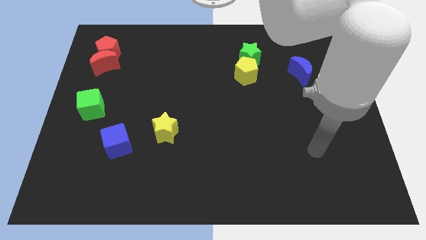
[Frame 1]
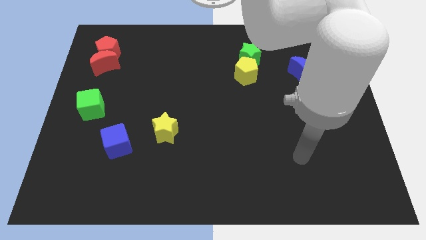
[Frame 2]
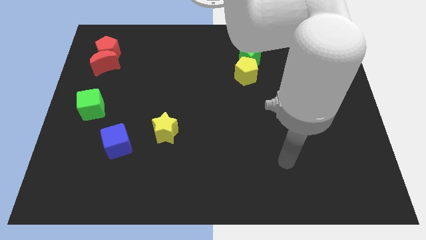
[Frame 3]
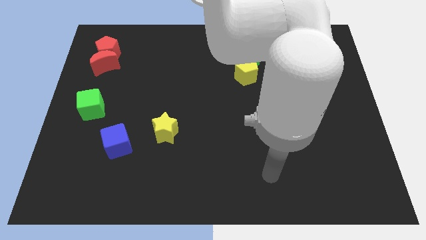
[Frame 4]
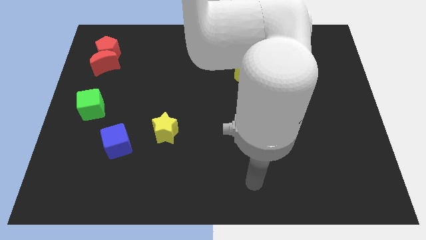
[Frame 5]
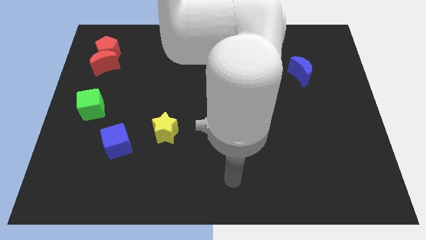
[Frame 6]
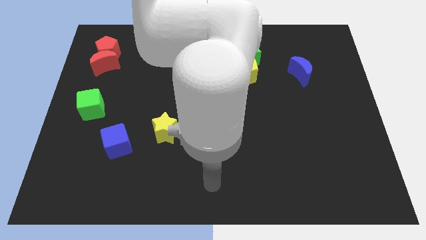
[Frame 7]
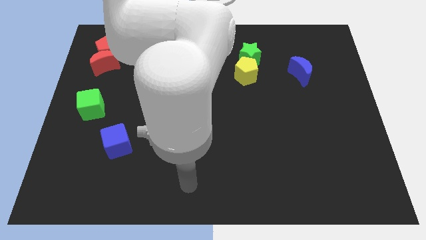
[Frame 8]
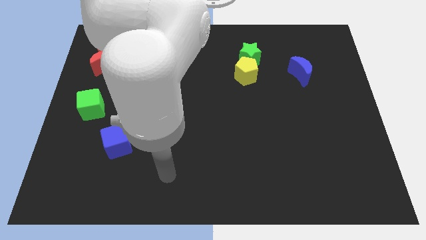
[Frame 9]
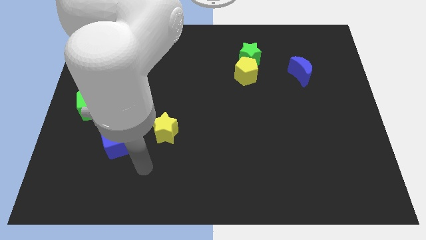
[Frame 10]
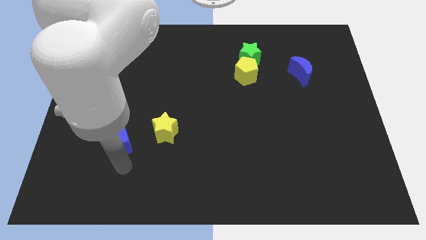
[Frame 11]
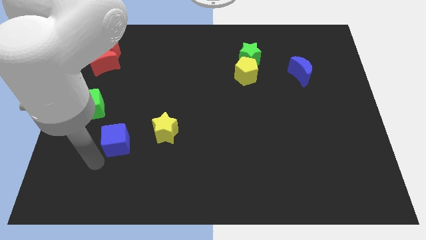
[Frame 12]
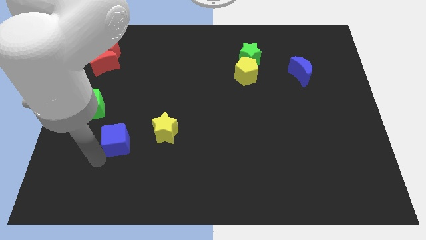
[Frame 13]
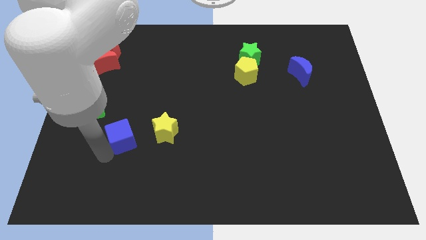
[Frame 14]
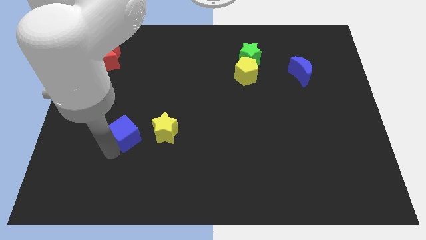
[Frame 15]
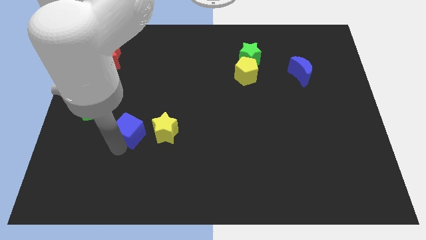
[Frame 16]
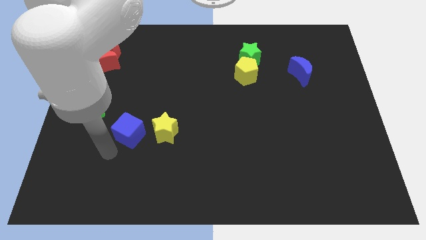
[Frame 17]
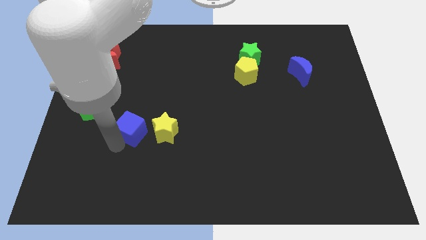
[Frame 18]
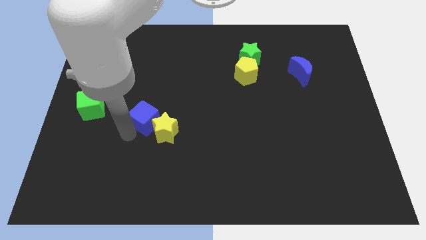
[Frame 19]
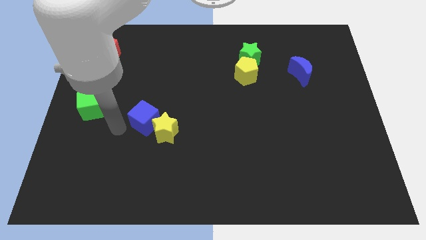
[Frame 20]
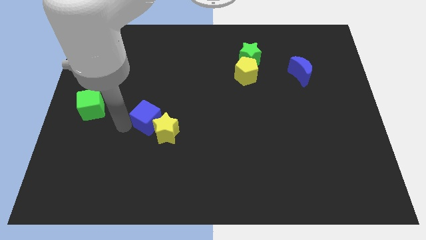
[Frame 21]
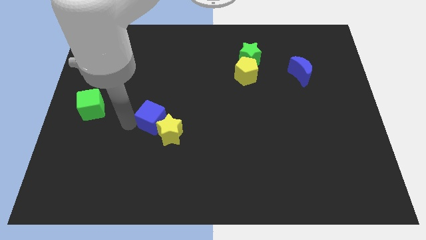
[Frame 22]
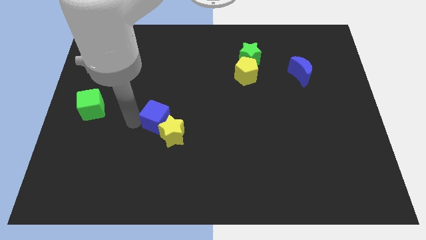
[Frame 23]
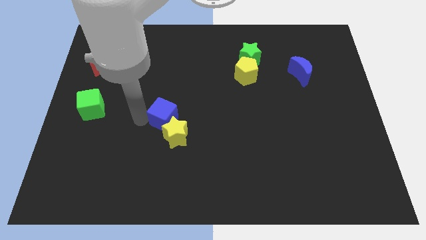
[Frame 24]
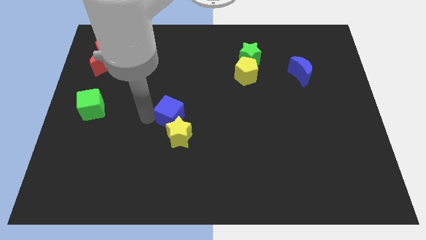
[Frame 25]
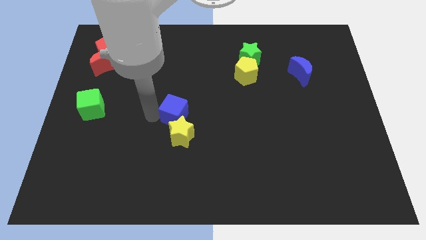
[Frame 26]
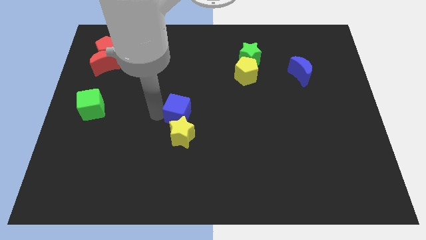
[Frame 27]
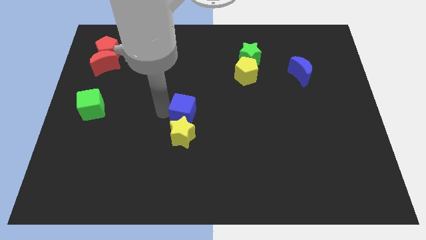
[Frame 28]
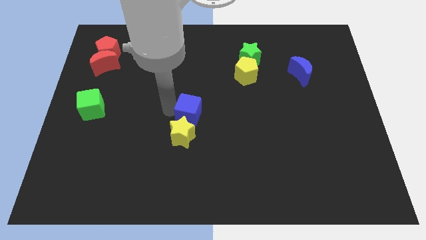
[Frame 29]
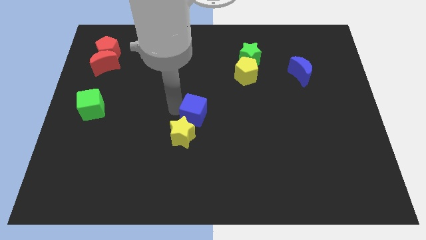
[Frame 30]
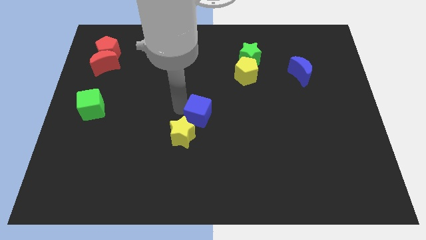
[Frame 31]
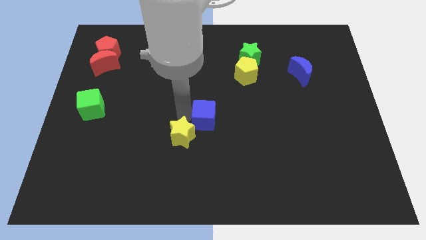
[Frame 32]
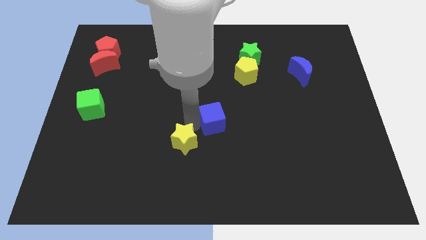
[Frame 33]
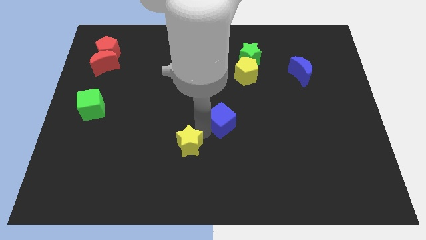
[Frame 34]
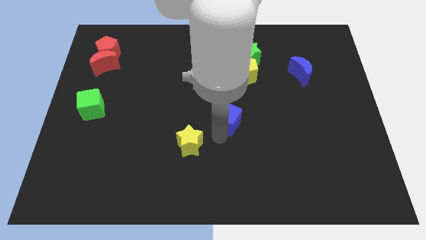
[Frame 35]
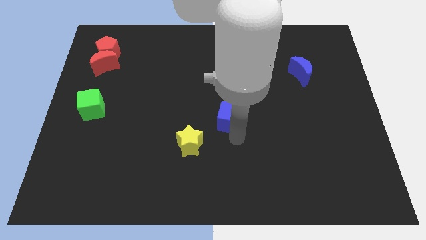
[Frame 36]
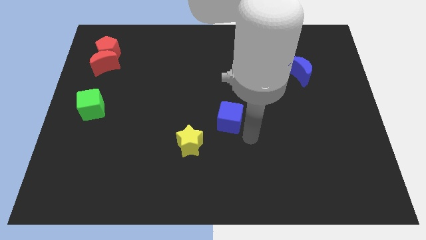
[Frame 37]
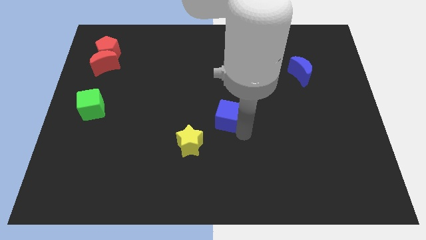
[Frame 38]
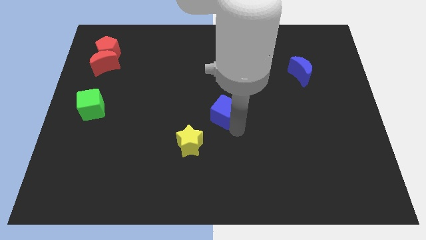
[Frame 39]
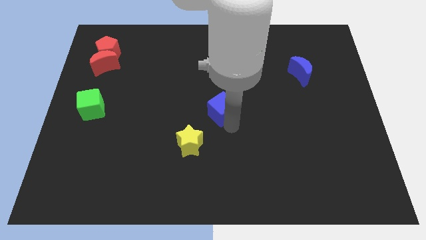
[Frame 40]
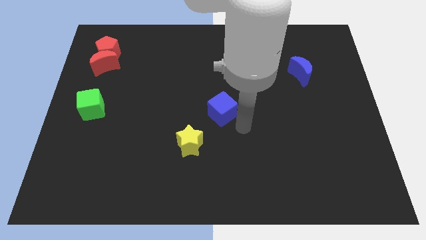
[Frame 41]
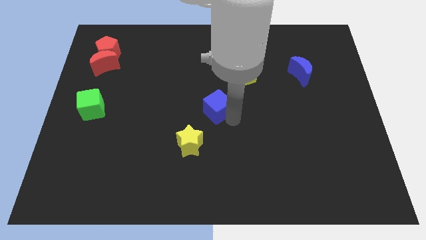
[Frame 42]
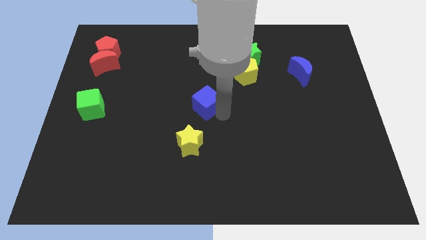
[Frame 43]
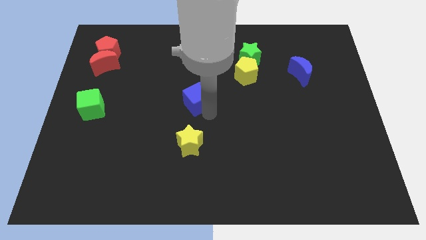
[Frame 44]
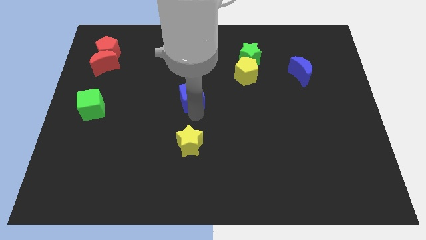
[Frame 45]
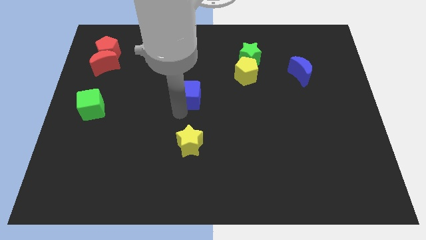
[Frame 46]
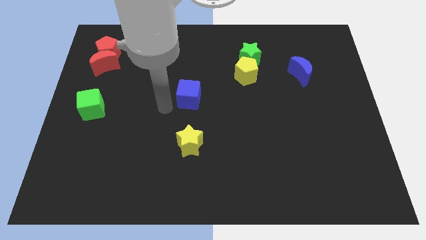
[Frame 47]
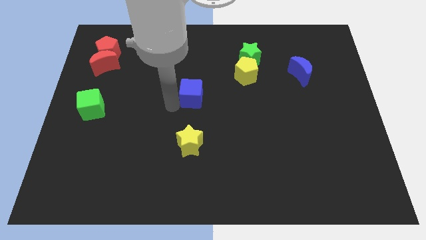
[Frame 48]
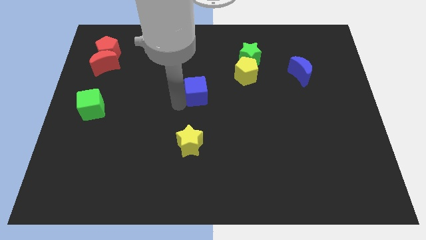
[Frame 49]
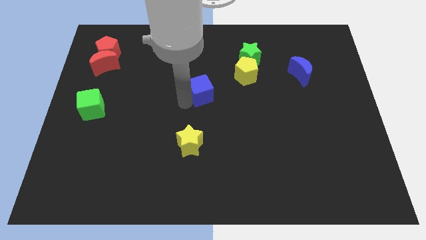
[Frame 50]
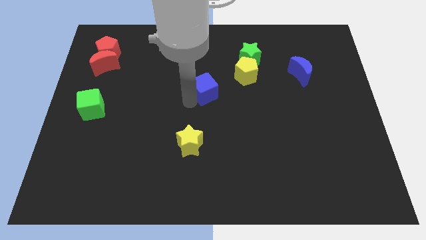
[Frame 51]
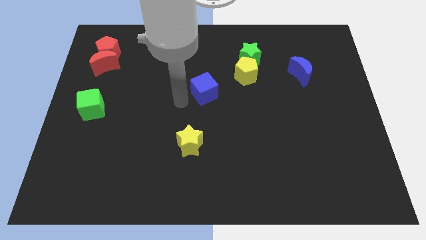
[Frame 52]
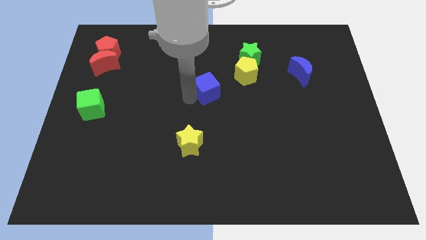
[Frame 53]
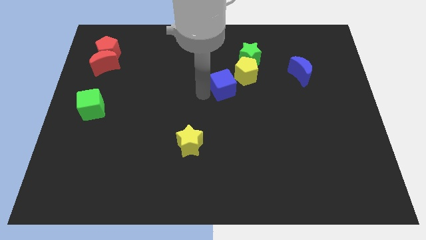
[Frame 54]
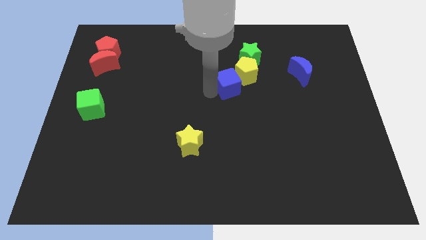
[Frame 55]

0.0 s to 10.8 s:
put the blue cube close to the yellow pentagon
